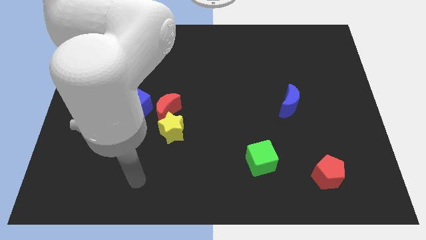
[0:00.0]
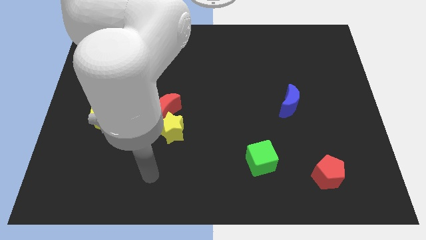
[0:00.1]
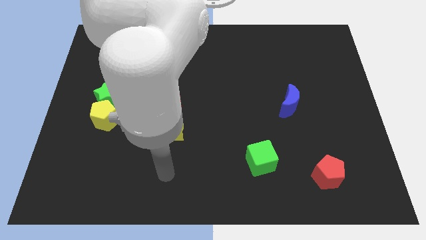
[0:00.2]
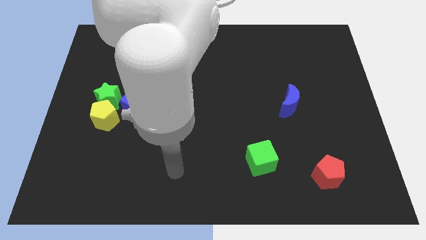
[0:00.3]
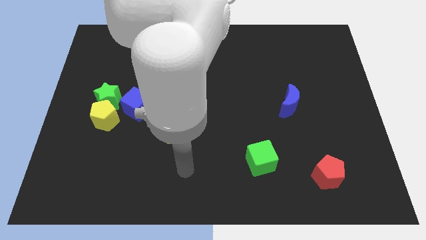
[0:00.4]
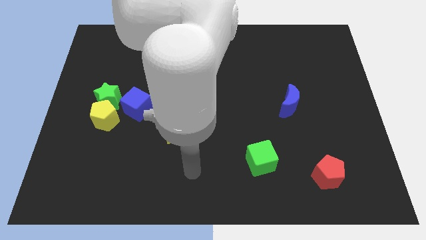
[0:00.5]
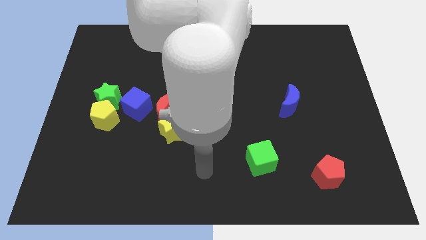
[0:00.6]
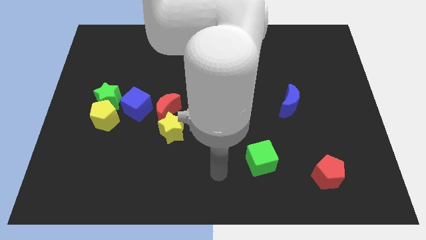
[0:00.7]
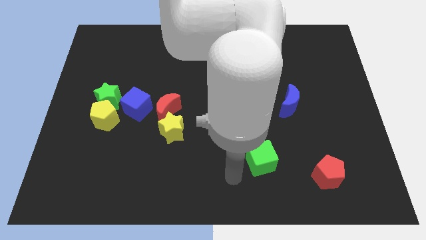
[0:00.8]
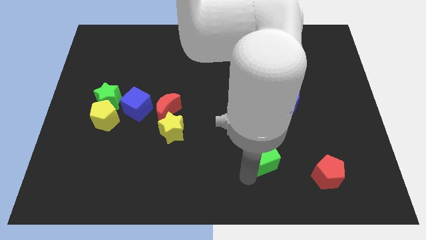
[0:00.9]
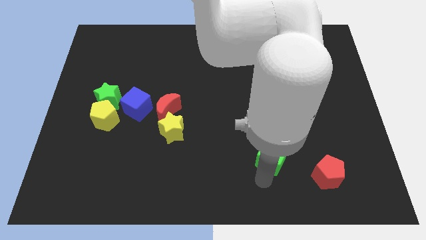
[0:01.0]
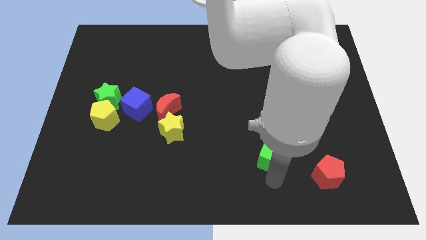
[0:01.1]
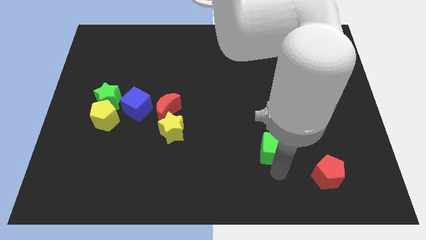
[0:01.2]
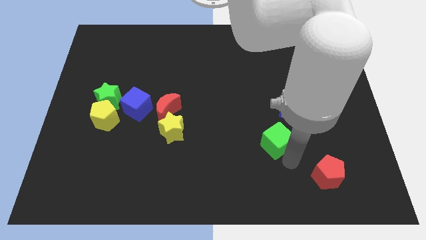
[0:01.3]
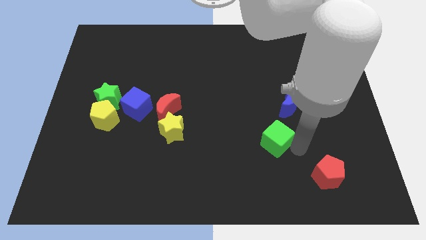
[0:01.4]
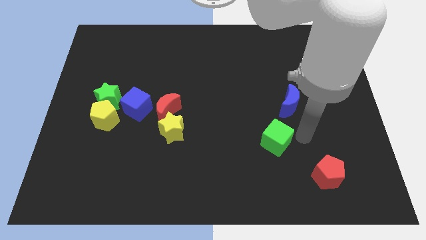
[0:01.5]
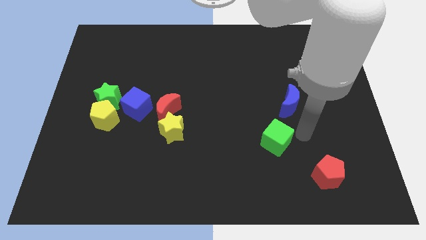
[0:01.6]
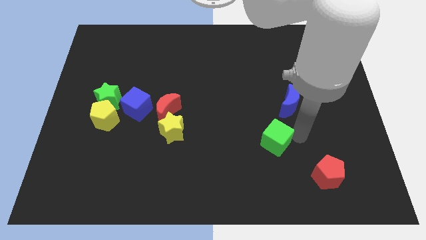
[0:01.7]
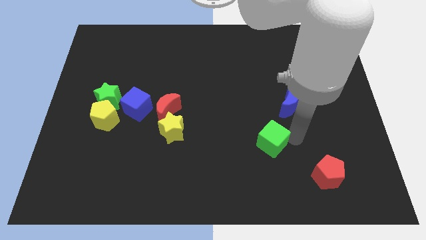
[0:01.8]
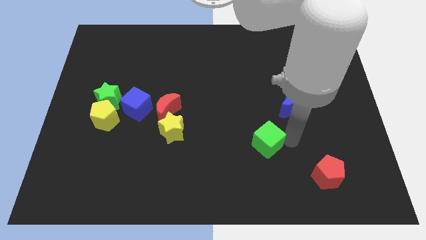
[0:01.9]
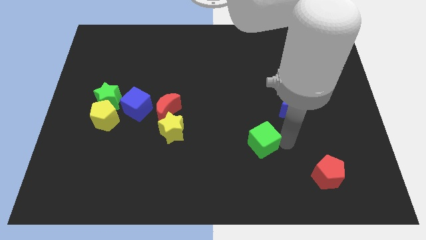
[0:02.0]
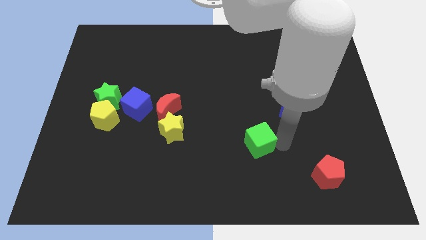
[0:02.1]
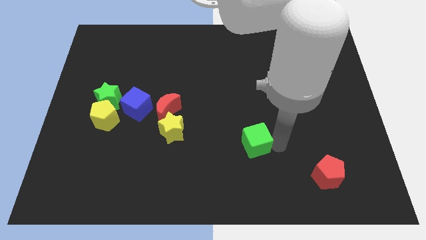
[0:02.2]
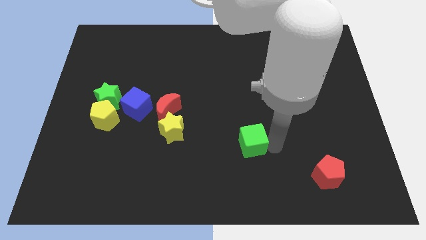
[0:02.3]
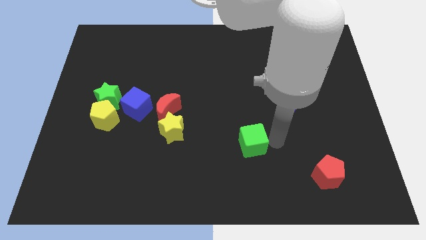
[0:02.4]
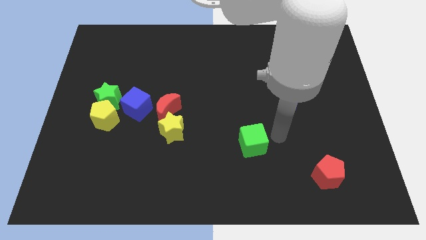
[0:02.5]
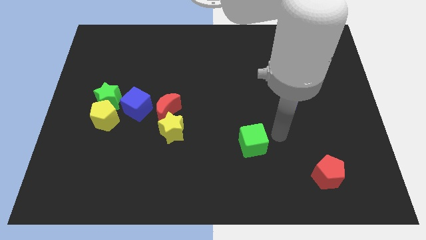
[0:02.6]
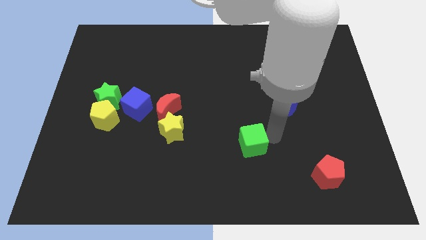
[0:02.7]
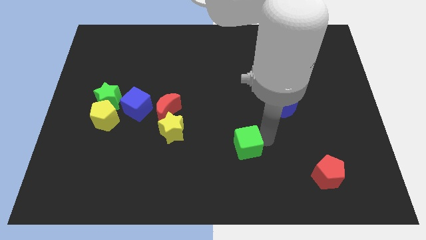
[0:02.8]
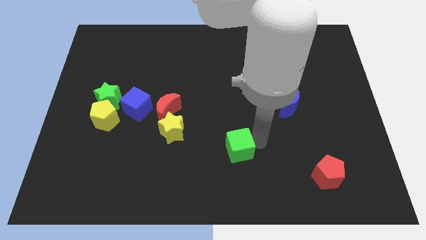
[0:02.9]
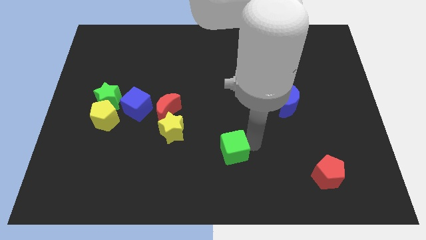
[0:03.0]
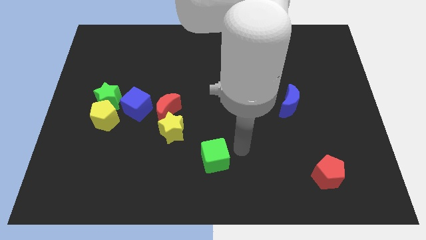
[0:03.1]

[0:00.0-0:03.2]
slightly push the green cube to the left

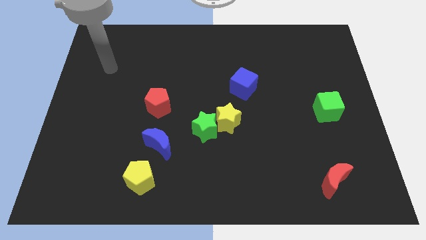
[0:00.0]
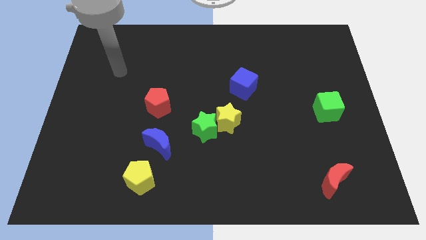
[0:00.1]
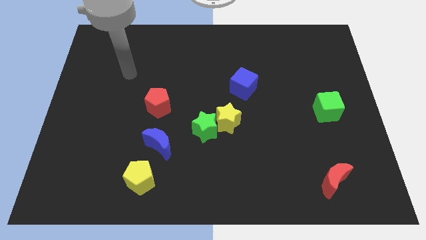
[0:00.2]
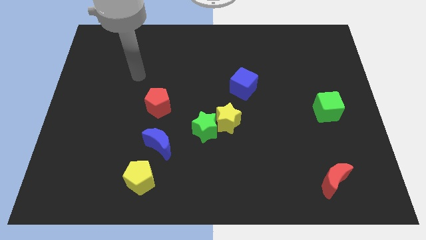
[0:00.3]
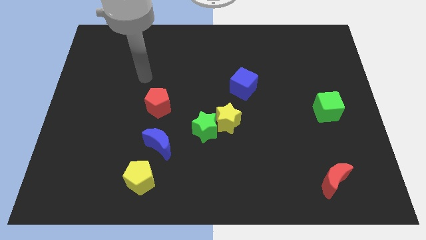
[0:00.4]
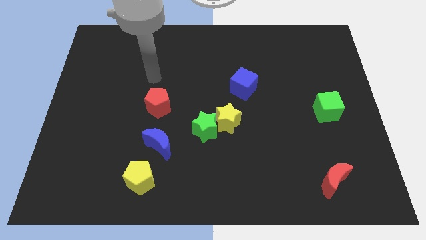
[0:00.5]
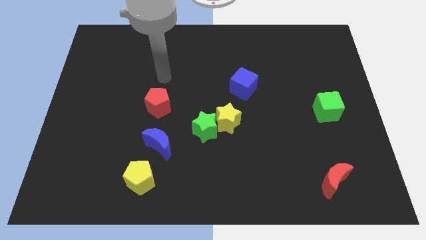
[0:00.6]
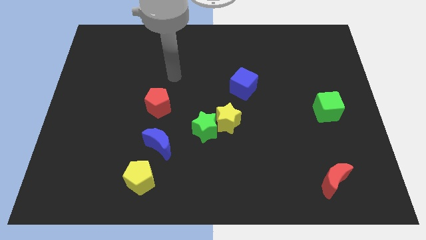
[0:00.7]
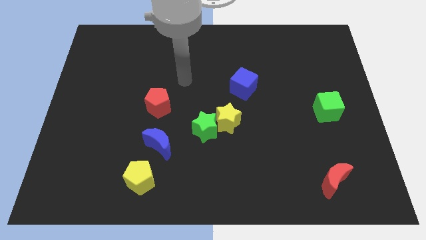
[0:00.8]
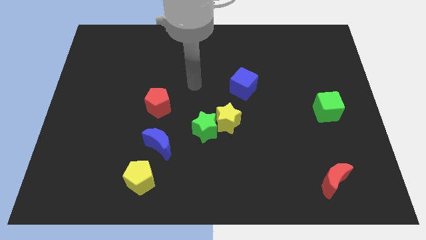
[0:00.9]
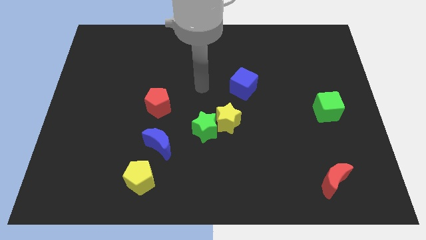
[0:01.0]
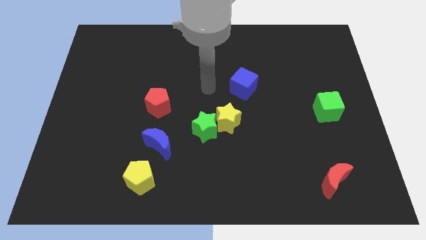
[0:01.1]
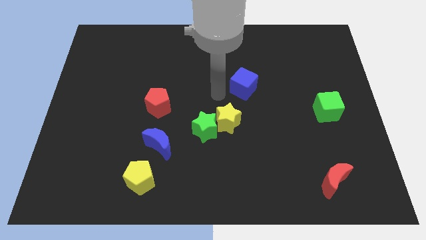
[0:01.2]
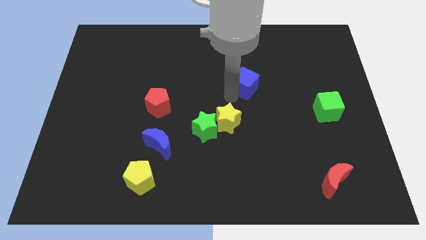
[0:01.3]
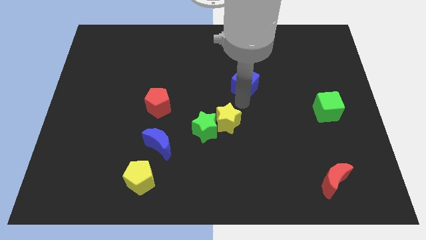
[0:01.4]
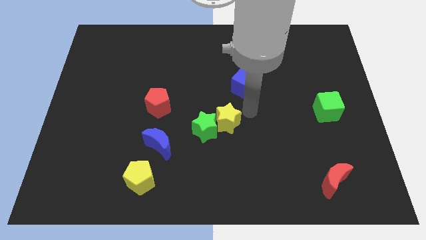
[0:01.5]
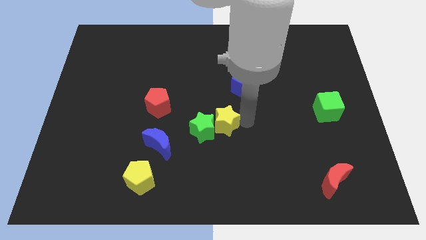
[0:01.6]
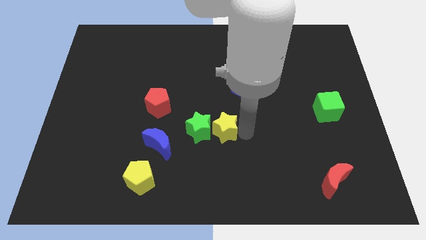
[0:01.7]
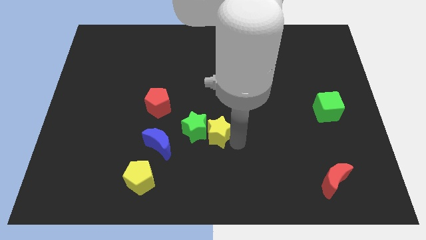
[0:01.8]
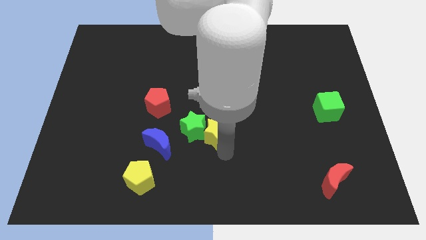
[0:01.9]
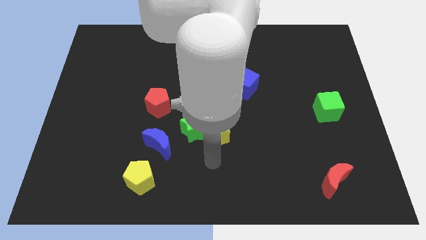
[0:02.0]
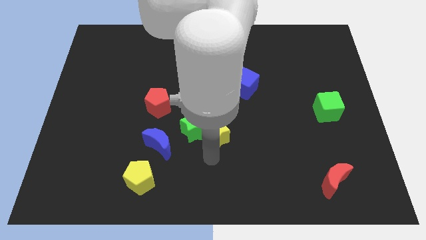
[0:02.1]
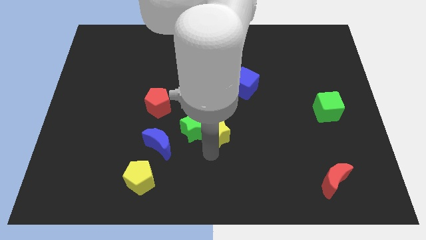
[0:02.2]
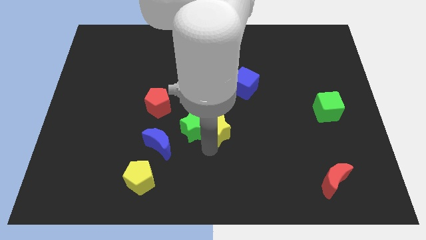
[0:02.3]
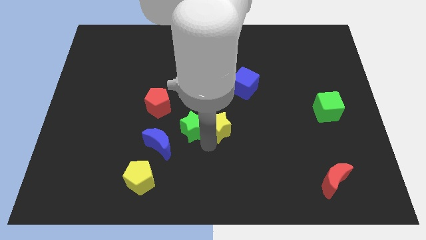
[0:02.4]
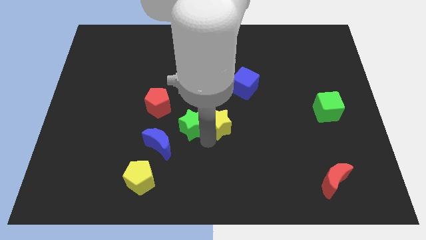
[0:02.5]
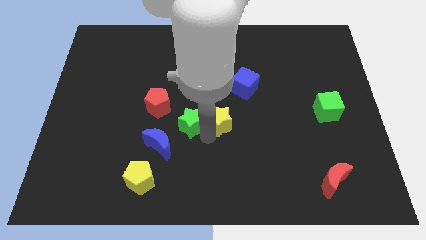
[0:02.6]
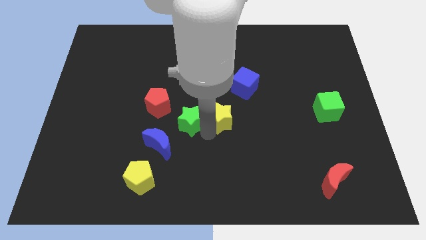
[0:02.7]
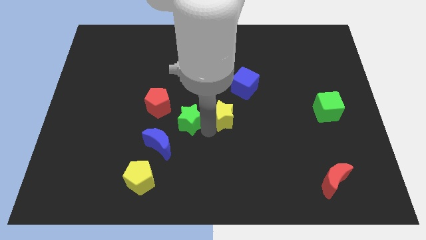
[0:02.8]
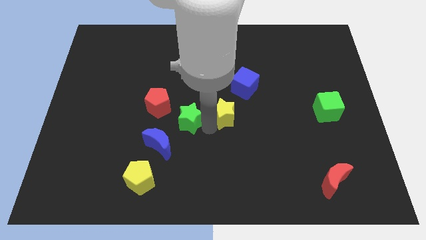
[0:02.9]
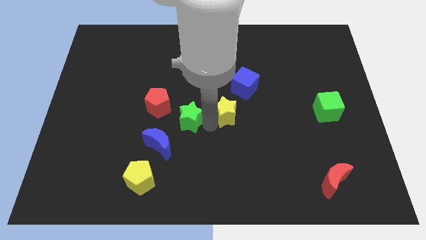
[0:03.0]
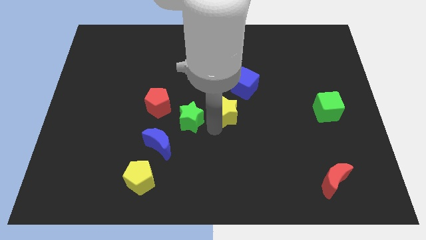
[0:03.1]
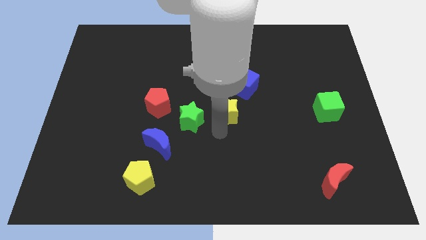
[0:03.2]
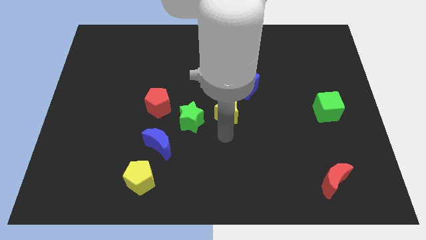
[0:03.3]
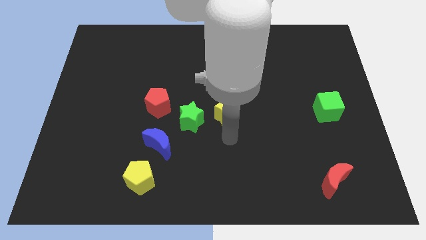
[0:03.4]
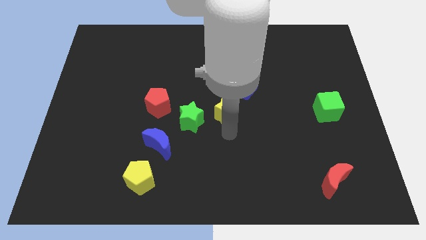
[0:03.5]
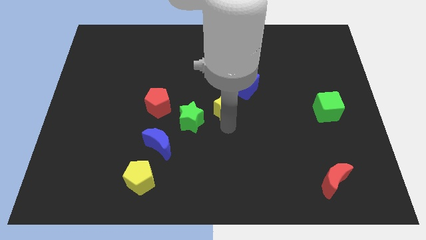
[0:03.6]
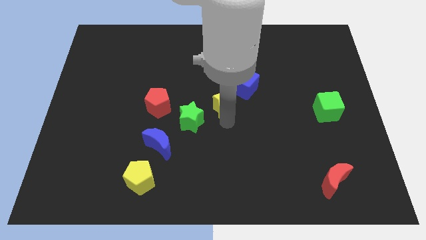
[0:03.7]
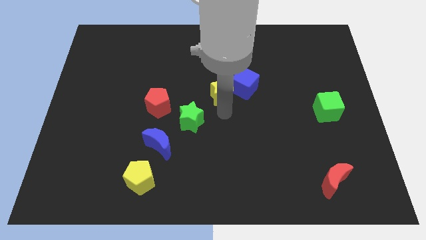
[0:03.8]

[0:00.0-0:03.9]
move the yellow star slightly up

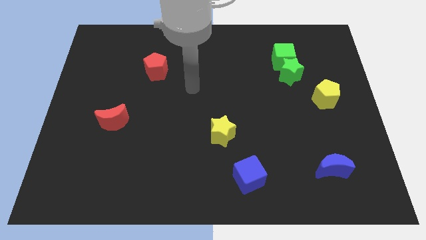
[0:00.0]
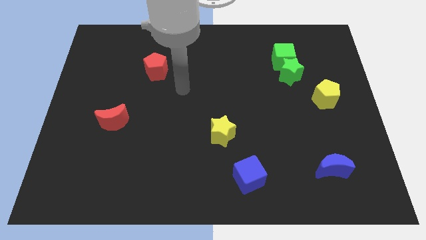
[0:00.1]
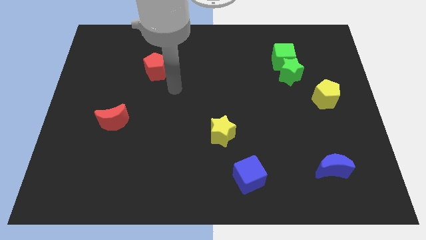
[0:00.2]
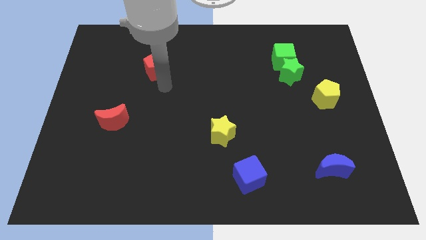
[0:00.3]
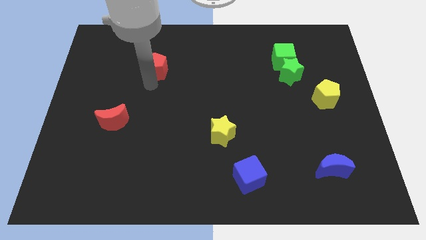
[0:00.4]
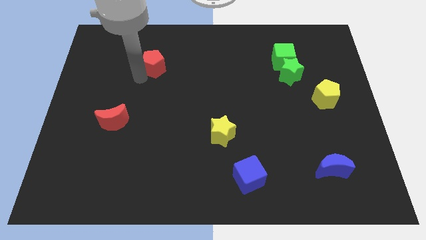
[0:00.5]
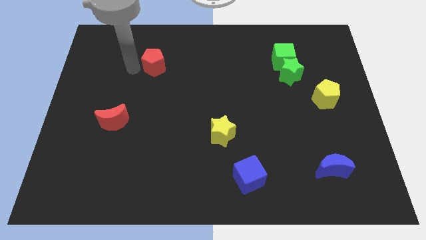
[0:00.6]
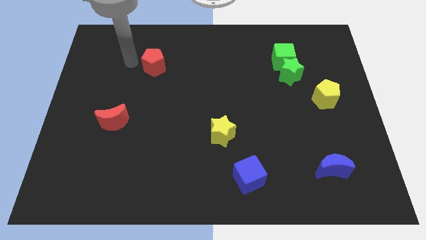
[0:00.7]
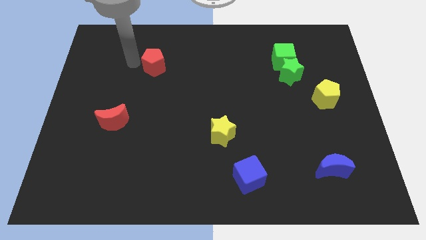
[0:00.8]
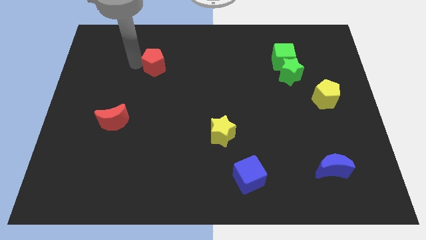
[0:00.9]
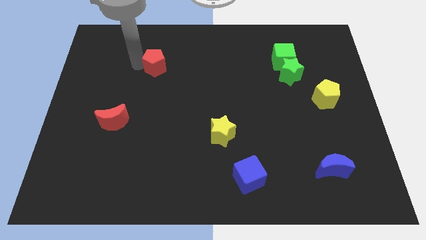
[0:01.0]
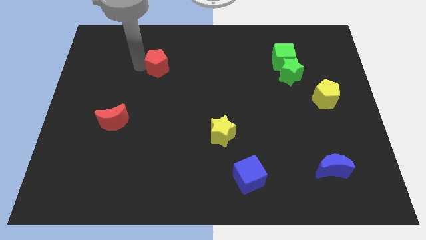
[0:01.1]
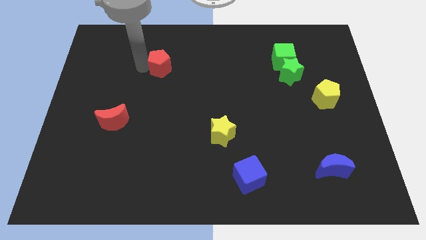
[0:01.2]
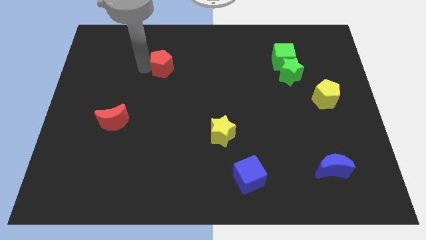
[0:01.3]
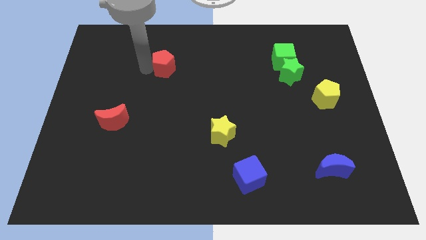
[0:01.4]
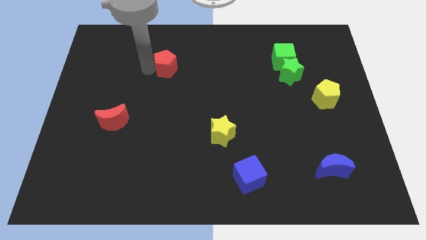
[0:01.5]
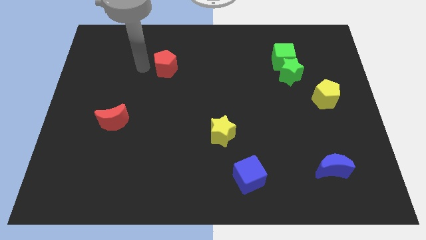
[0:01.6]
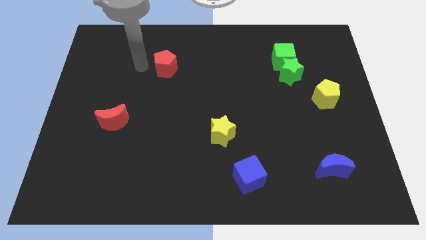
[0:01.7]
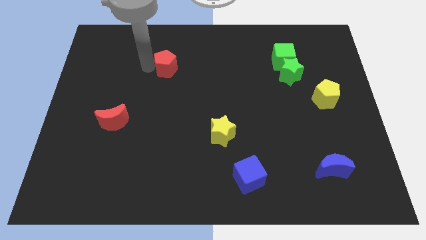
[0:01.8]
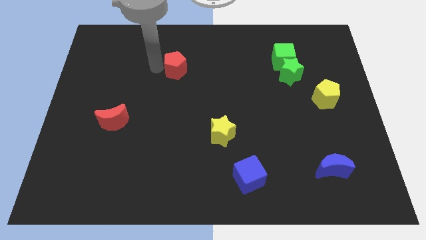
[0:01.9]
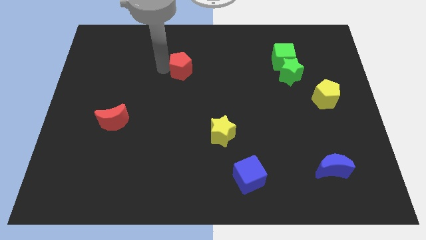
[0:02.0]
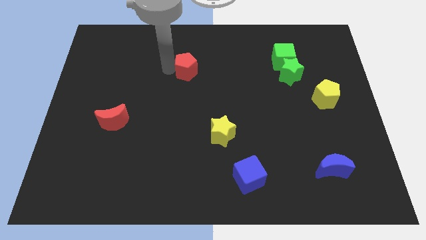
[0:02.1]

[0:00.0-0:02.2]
push the red pentagon a little bit to the right
